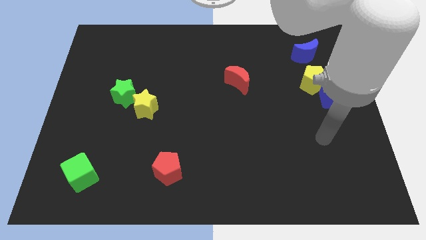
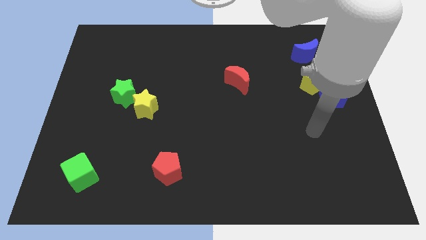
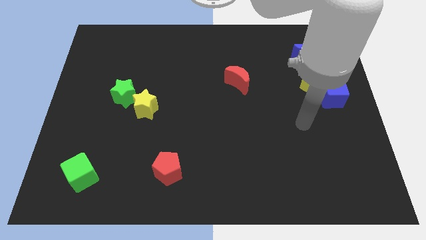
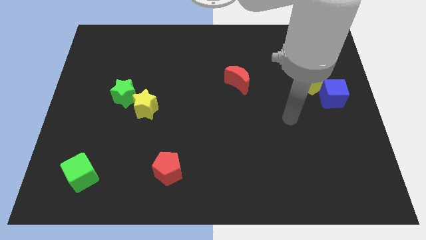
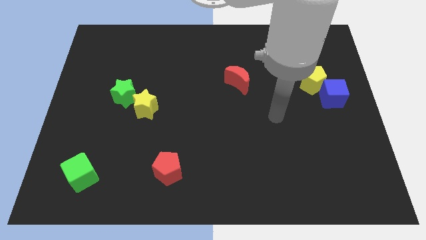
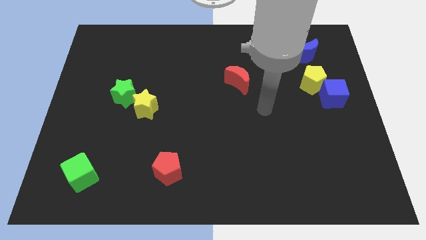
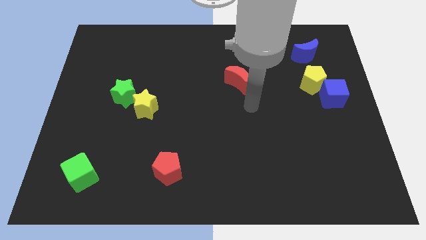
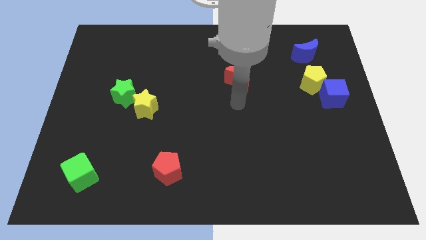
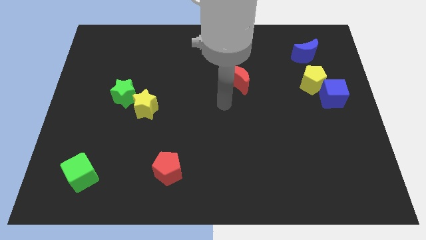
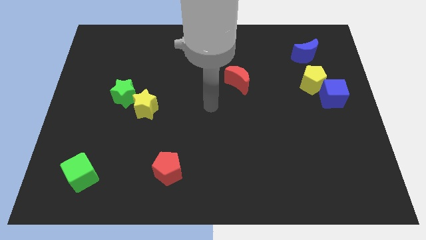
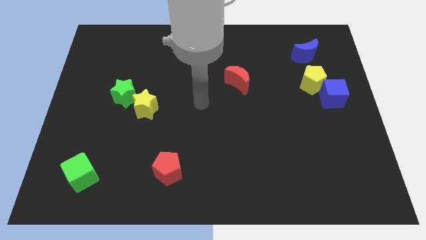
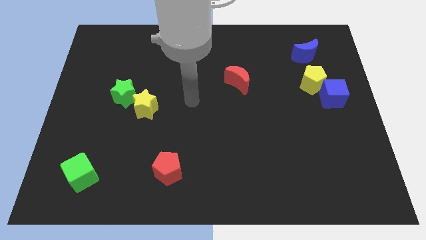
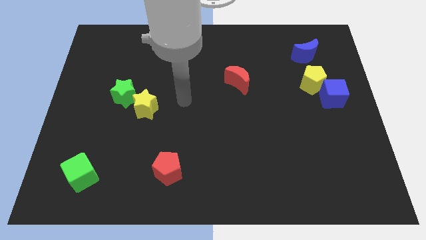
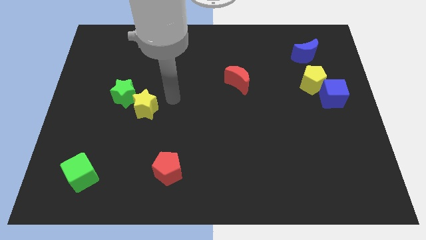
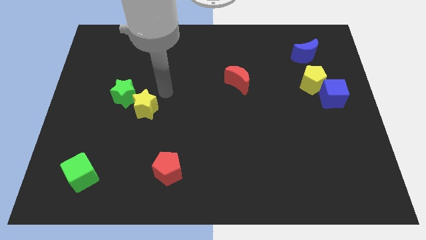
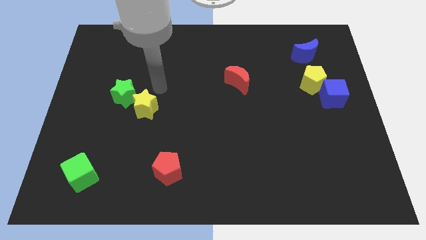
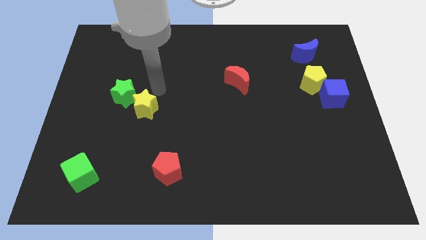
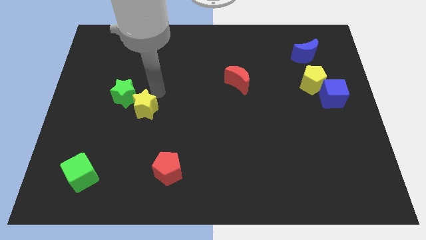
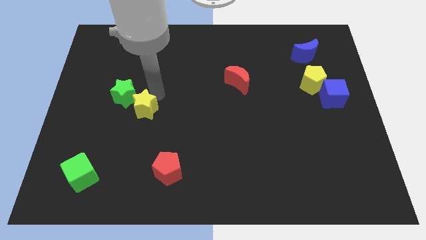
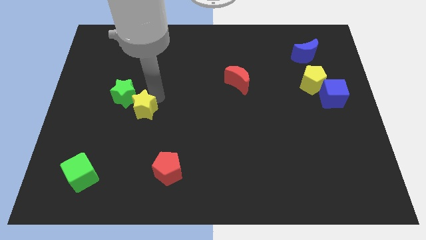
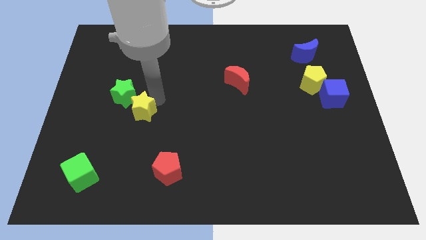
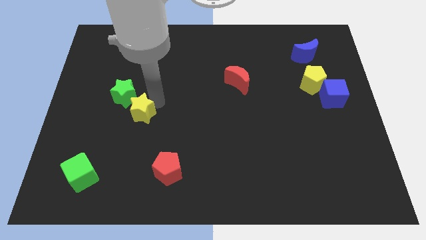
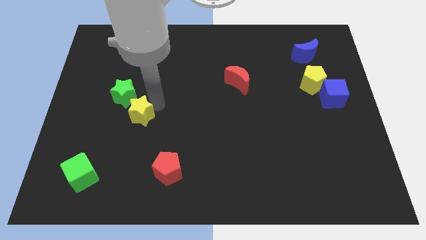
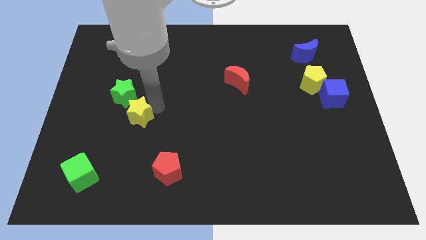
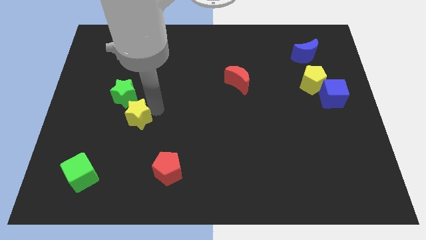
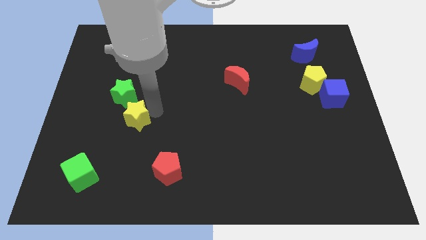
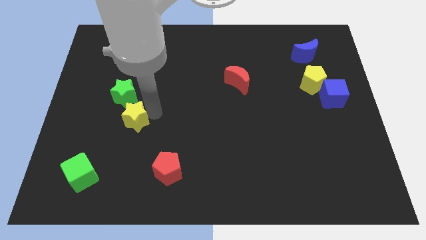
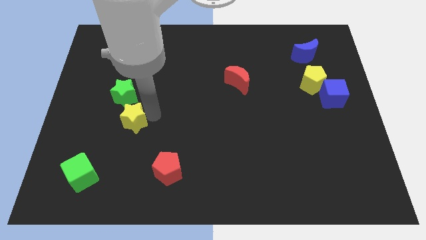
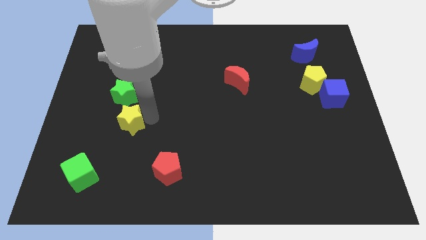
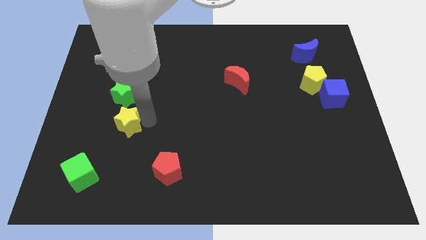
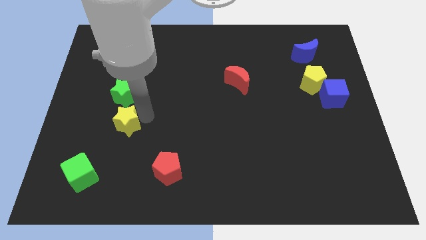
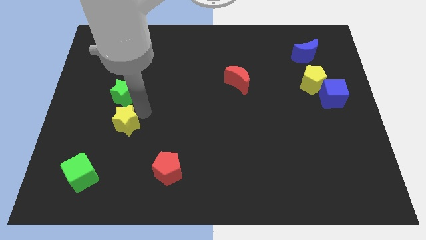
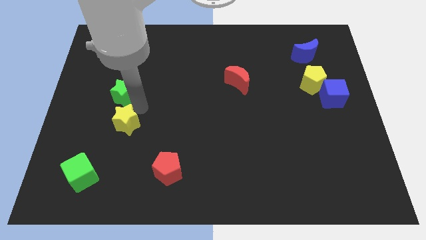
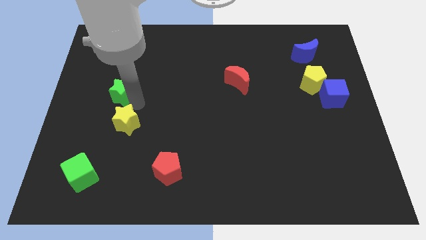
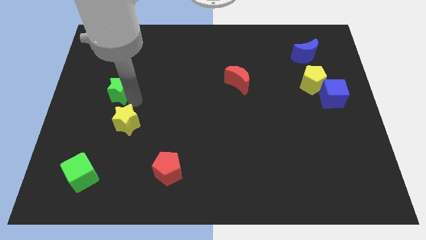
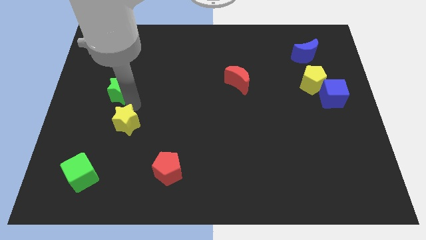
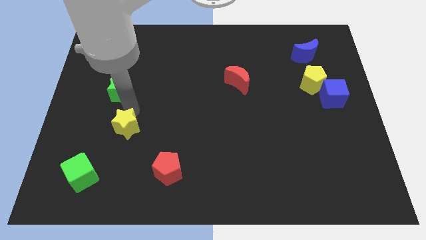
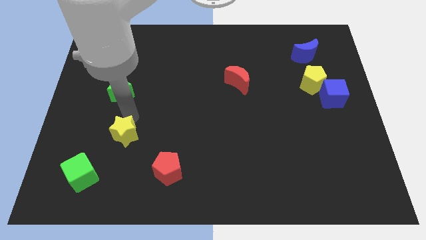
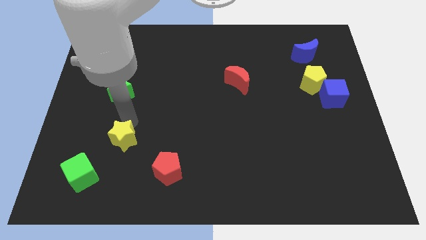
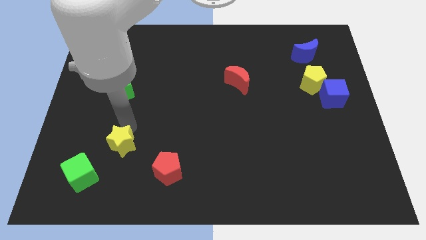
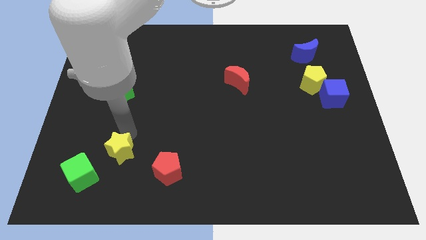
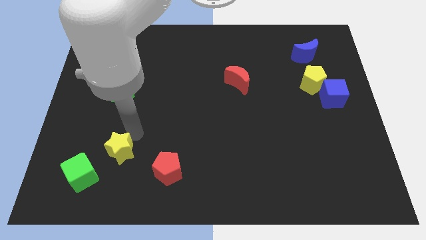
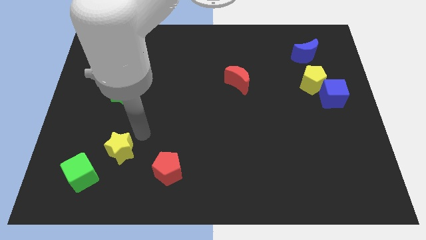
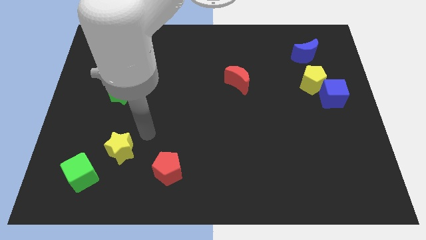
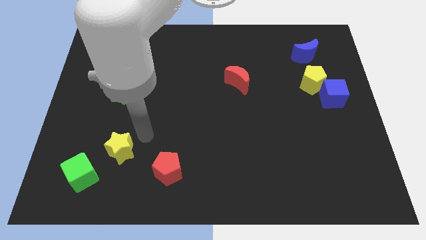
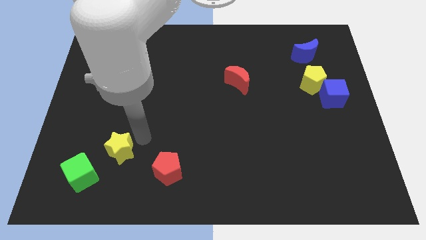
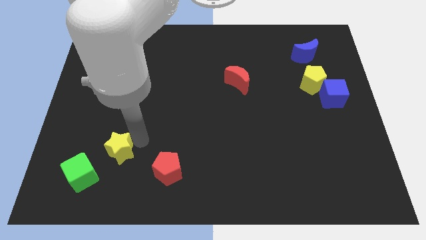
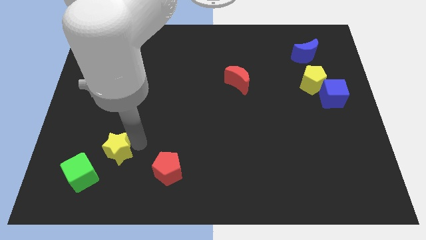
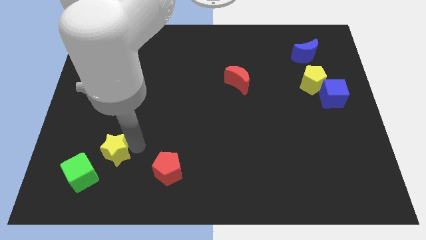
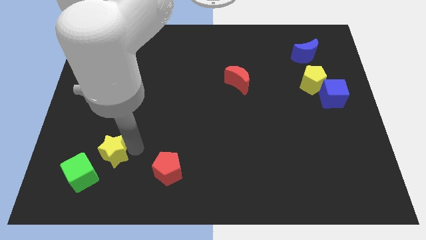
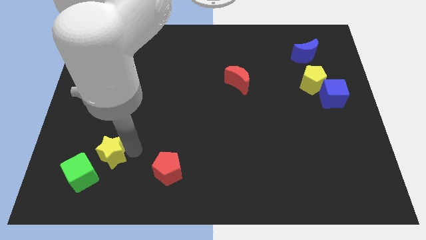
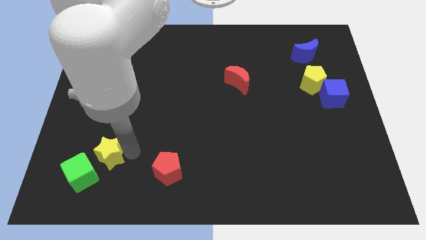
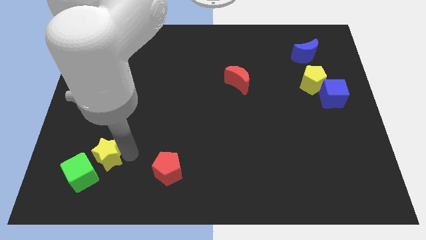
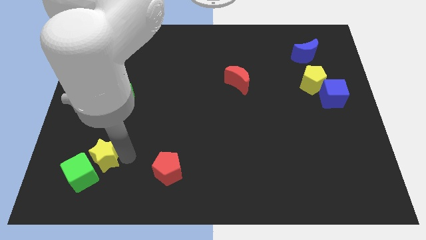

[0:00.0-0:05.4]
slide the yellow star close to the green cube

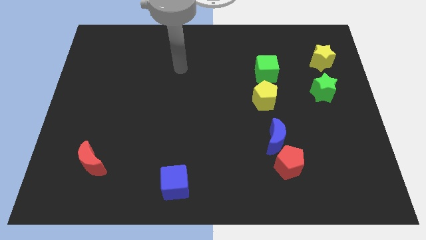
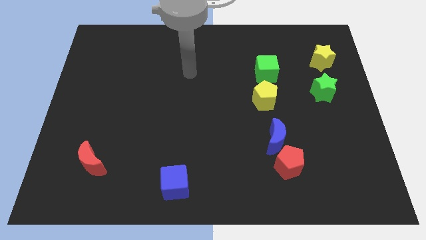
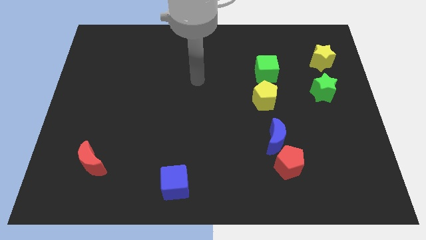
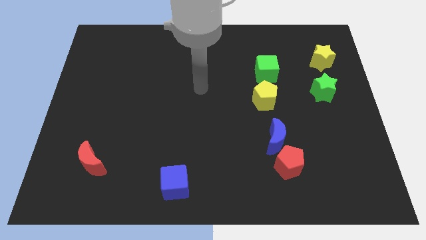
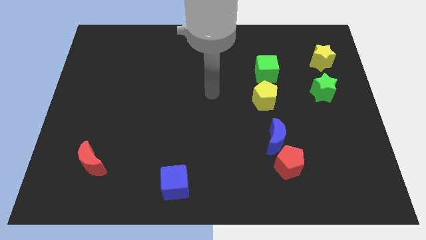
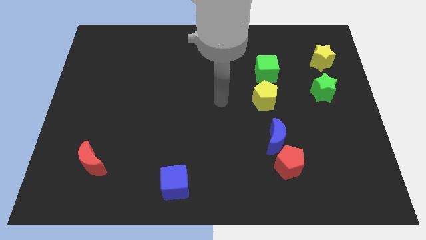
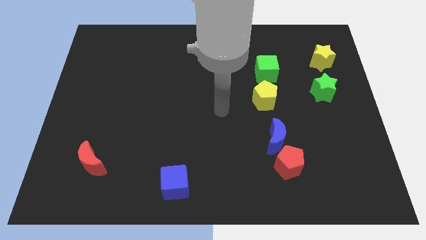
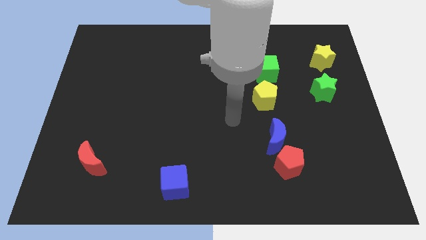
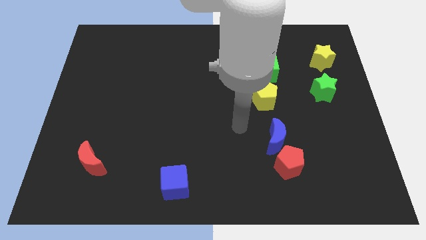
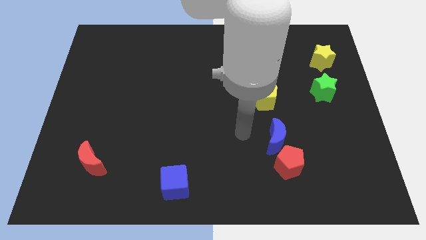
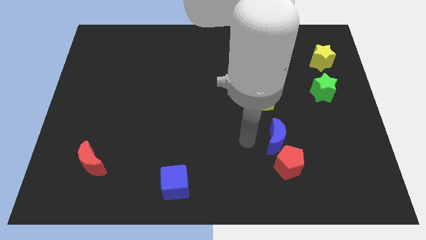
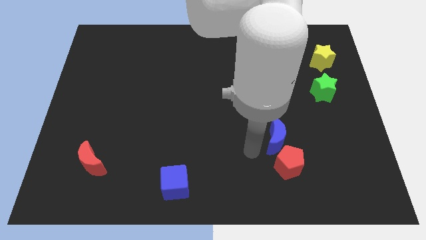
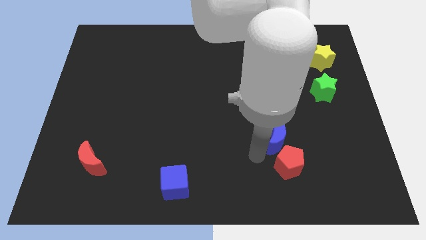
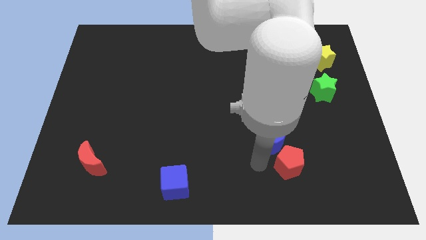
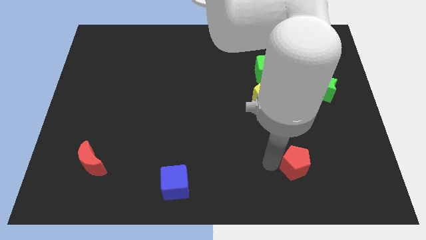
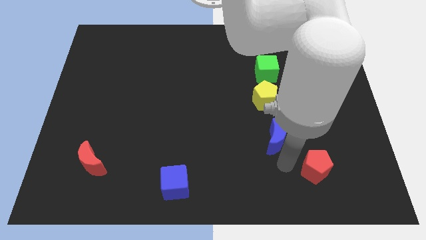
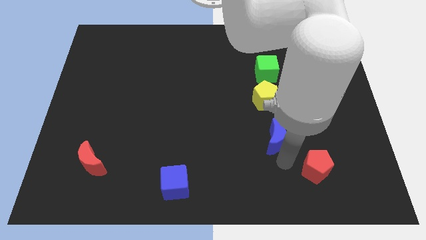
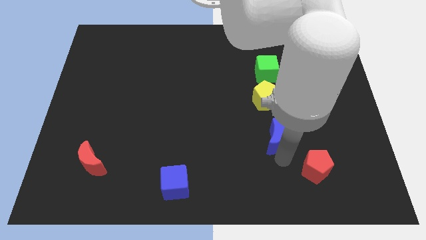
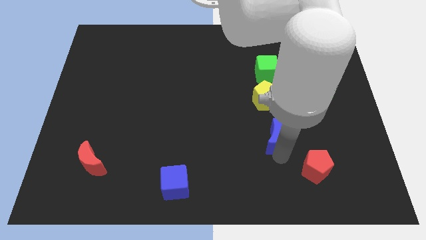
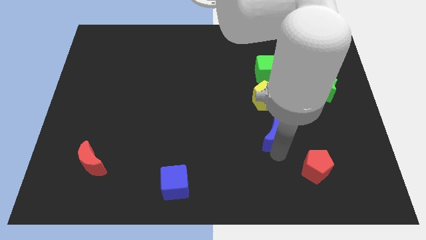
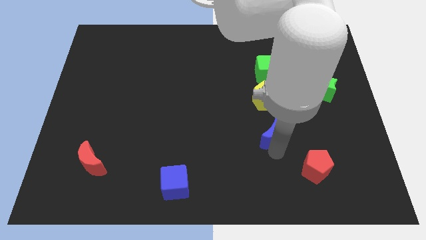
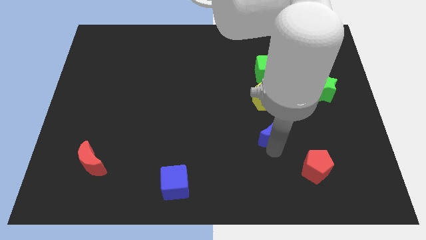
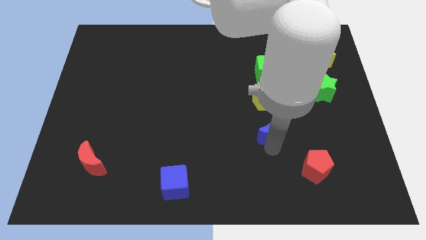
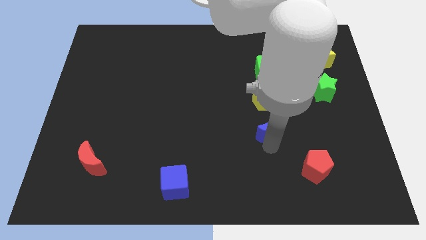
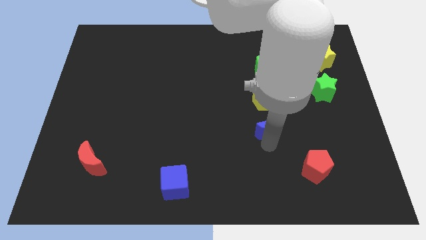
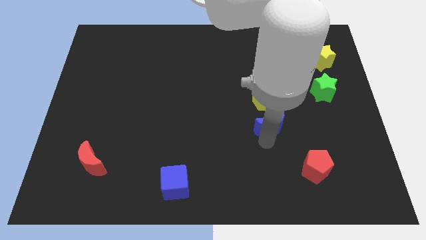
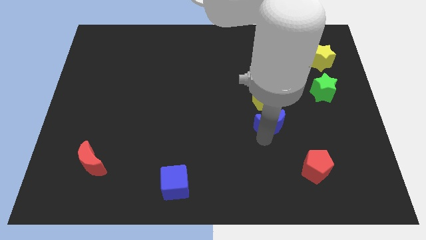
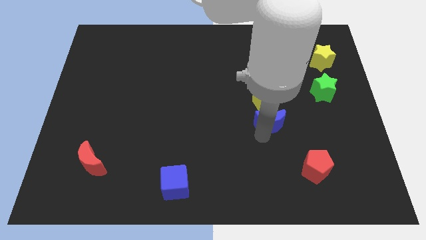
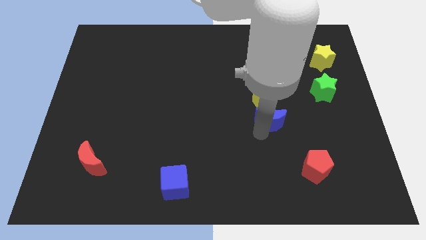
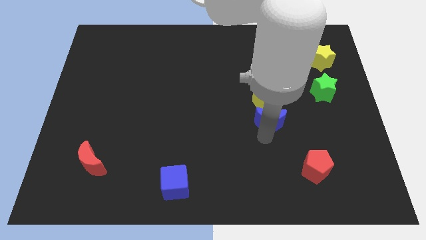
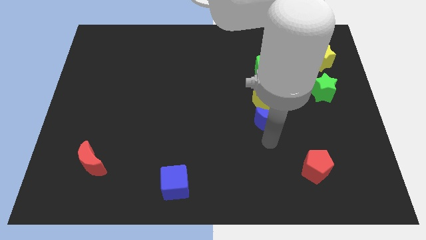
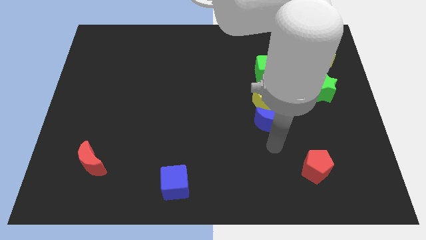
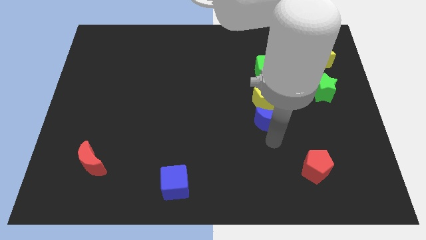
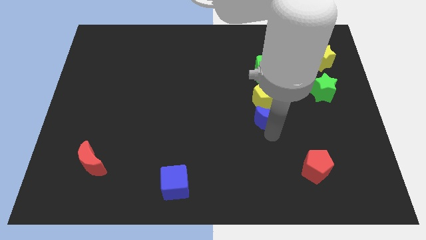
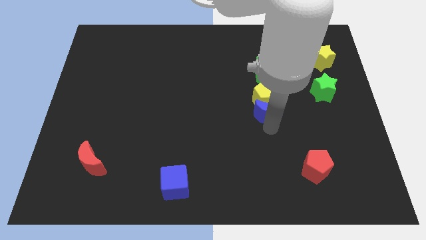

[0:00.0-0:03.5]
move the blue moon next to the yellow pentagon
